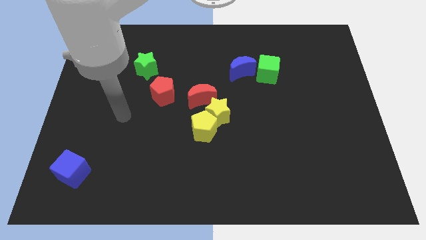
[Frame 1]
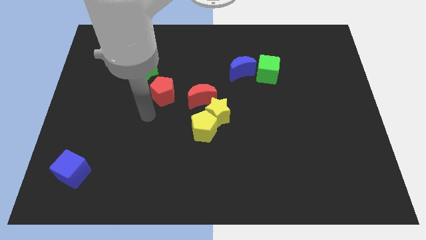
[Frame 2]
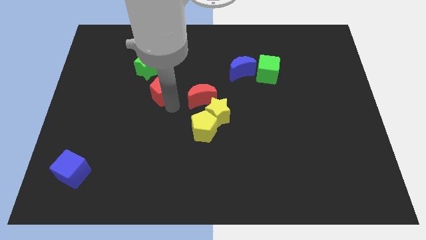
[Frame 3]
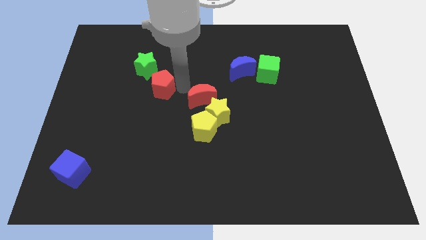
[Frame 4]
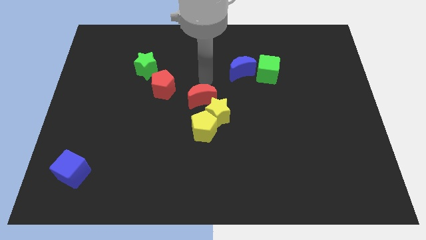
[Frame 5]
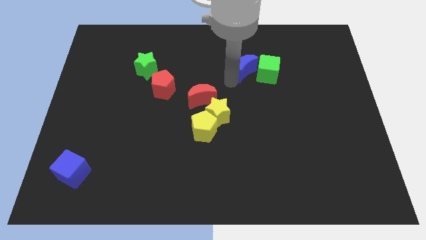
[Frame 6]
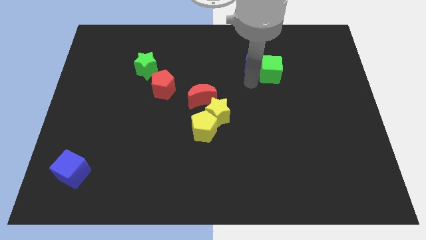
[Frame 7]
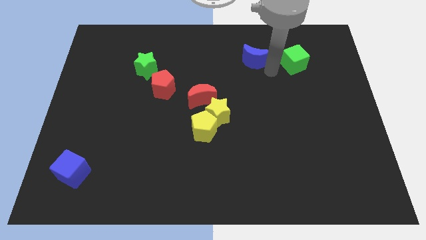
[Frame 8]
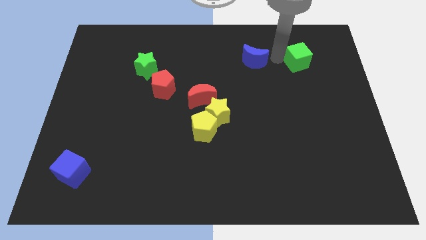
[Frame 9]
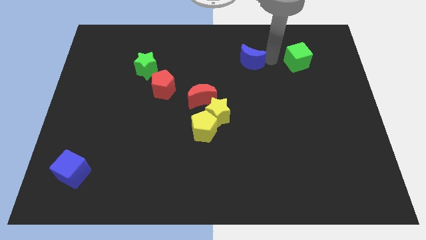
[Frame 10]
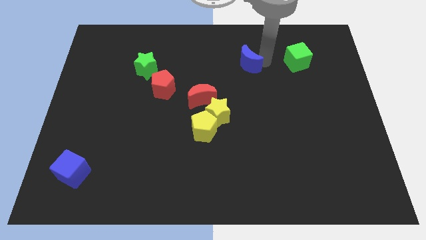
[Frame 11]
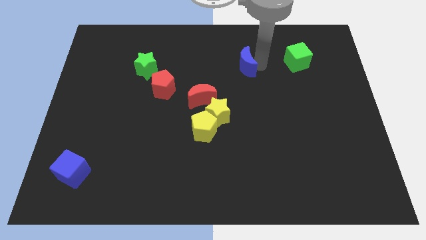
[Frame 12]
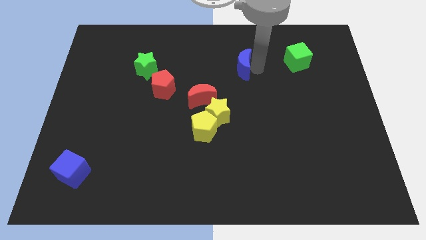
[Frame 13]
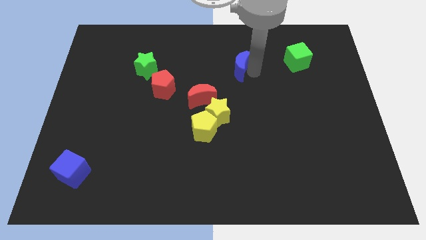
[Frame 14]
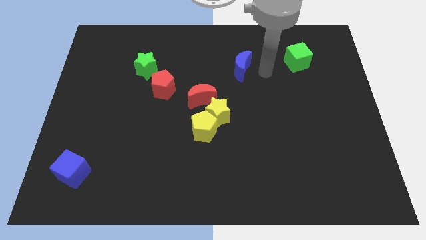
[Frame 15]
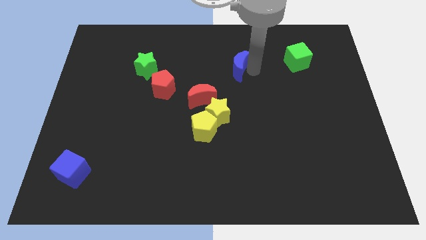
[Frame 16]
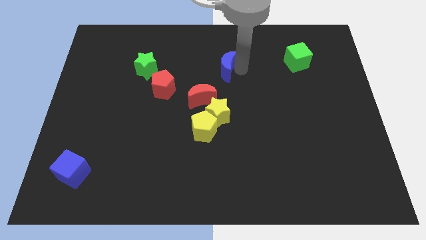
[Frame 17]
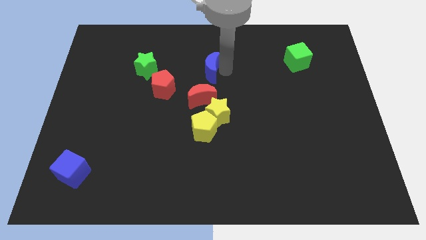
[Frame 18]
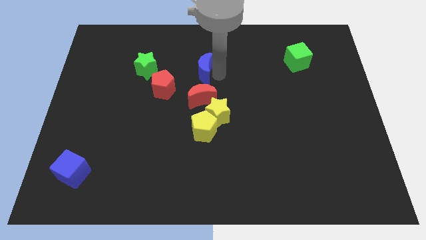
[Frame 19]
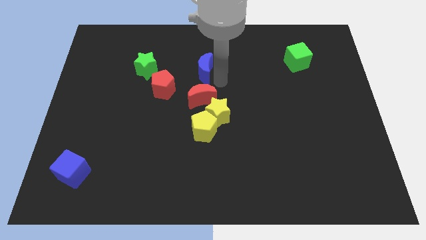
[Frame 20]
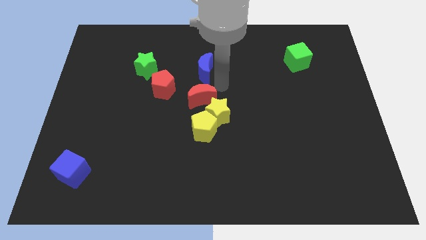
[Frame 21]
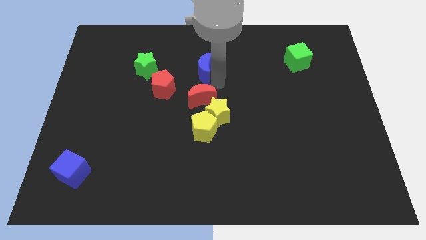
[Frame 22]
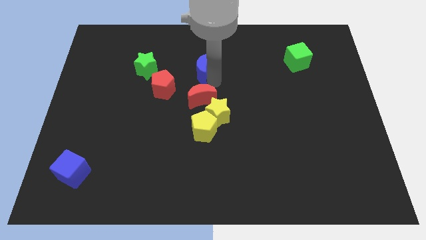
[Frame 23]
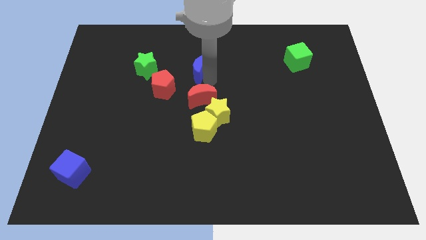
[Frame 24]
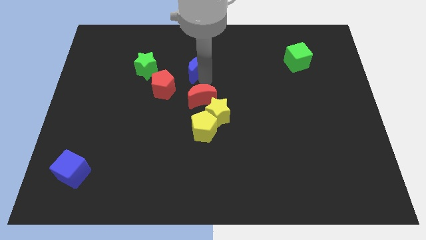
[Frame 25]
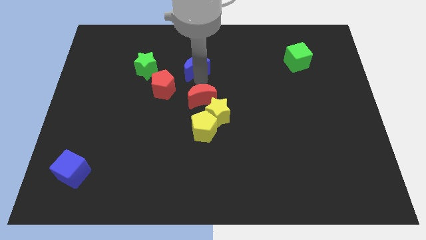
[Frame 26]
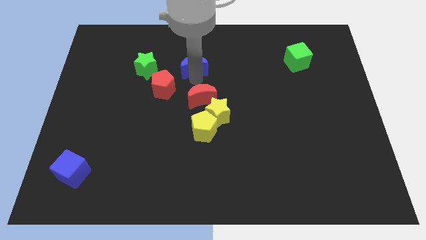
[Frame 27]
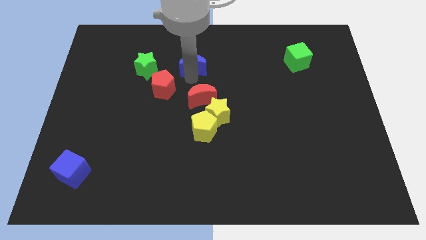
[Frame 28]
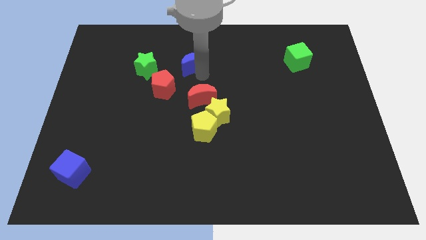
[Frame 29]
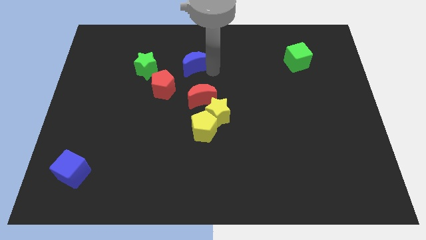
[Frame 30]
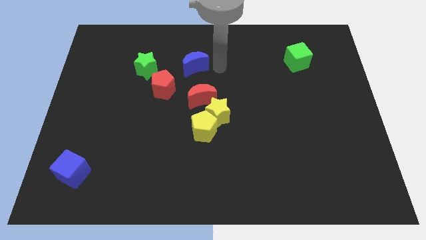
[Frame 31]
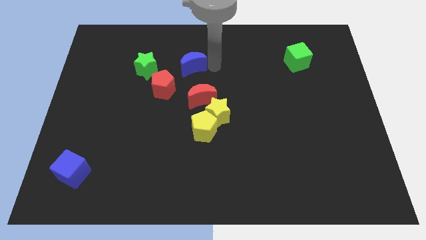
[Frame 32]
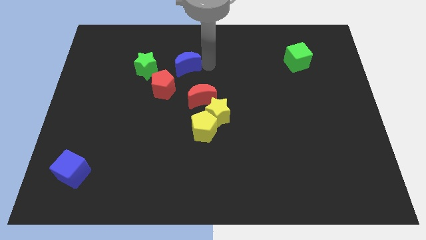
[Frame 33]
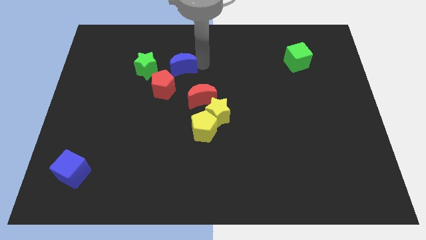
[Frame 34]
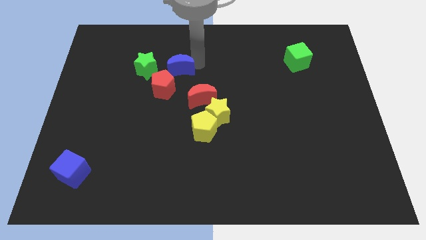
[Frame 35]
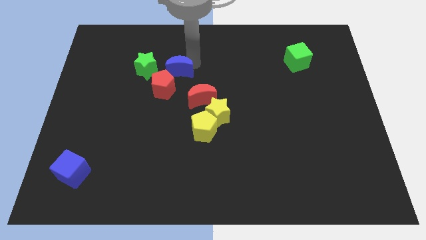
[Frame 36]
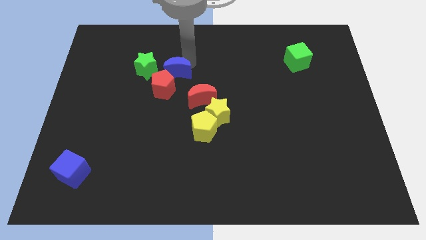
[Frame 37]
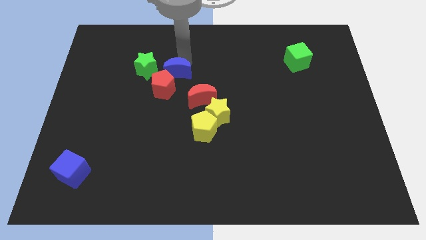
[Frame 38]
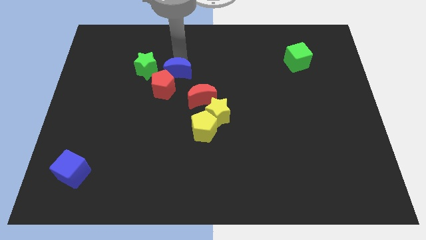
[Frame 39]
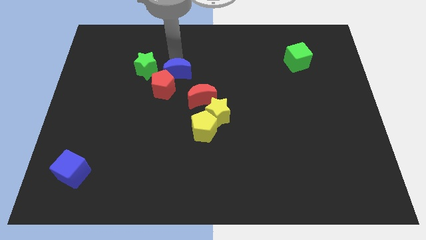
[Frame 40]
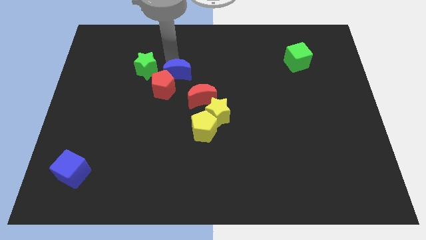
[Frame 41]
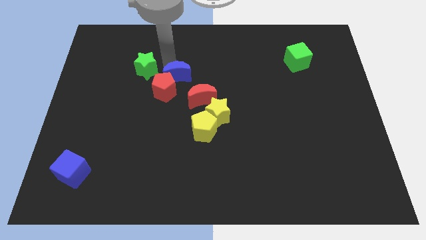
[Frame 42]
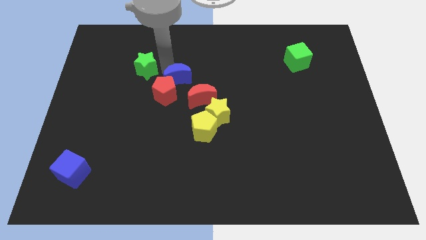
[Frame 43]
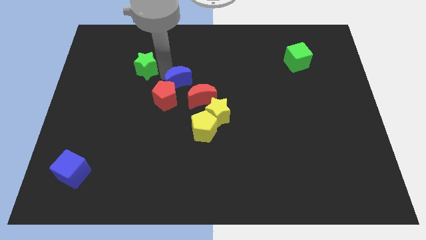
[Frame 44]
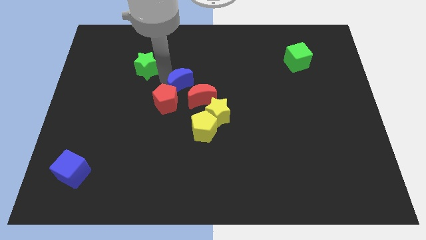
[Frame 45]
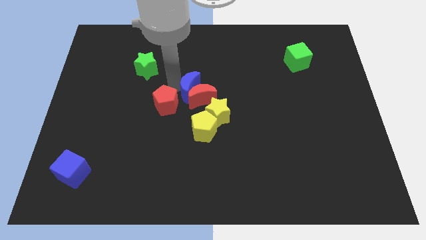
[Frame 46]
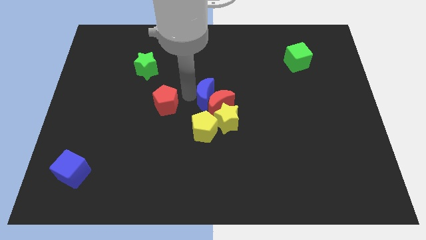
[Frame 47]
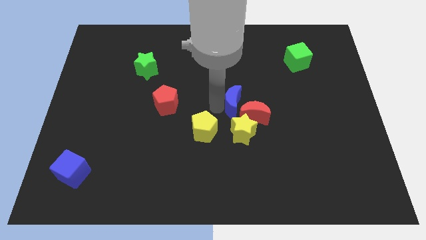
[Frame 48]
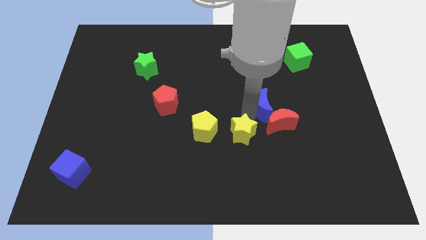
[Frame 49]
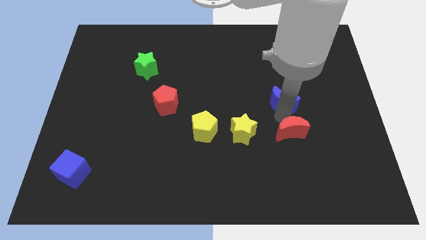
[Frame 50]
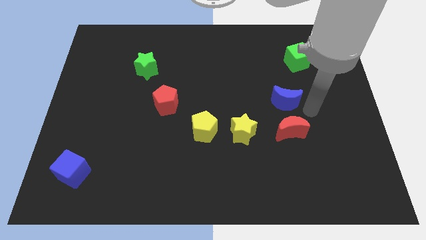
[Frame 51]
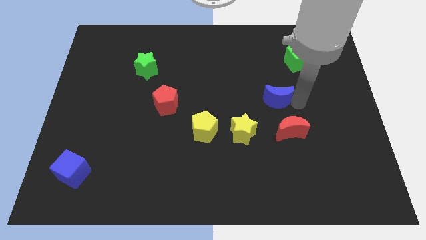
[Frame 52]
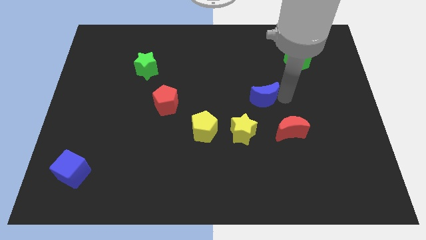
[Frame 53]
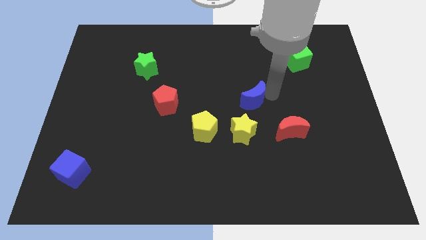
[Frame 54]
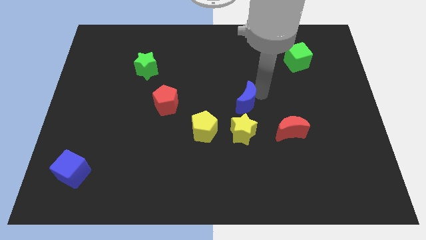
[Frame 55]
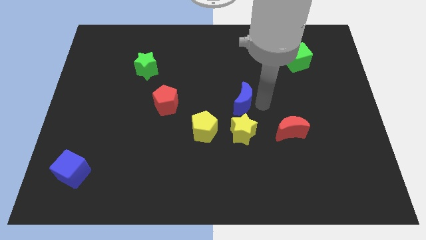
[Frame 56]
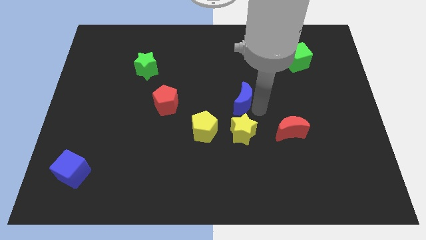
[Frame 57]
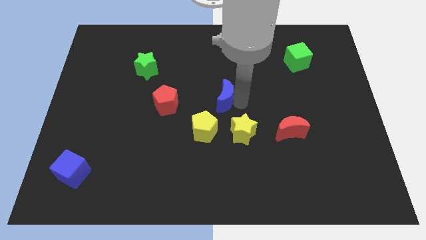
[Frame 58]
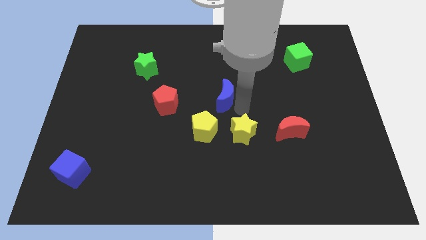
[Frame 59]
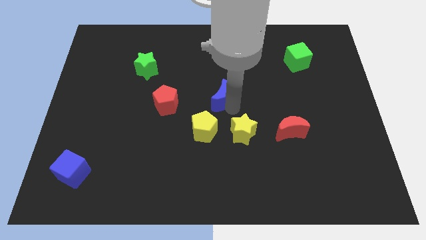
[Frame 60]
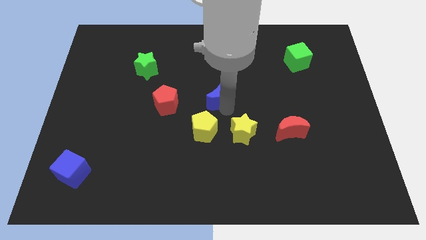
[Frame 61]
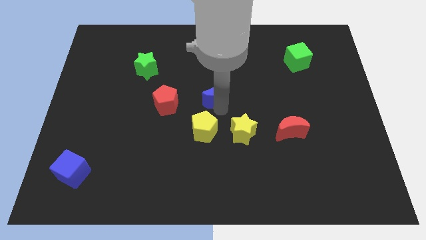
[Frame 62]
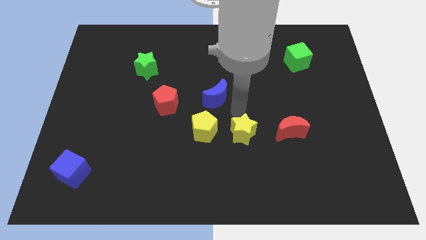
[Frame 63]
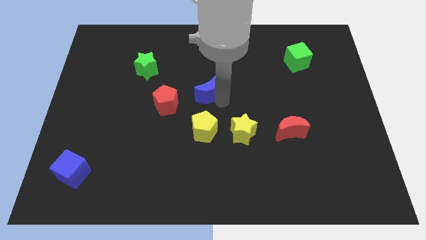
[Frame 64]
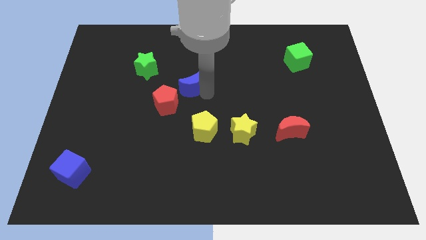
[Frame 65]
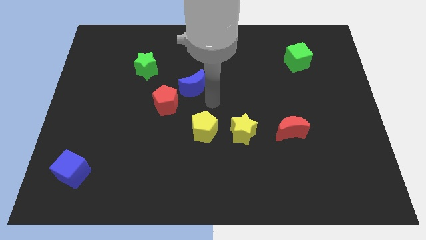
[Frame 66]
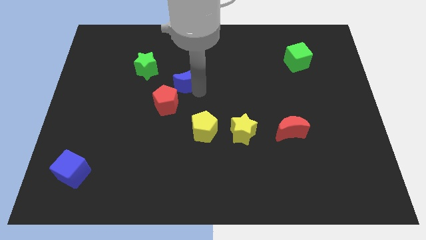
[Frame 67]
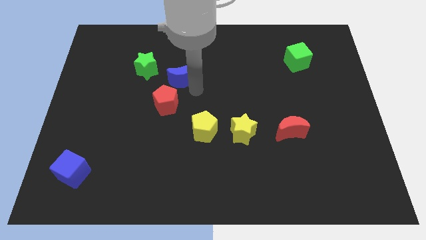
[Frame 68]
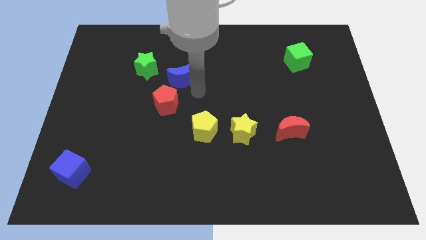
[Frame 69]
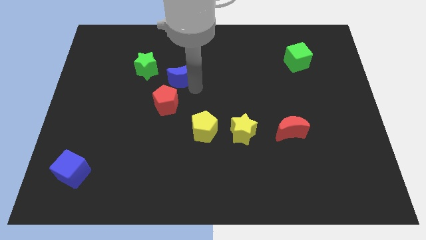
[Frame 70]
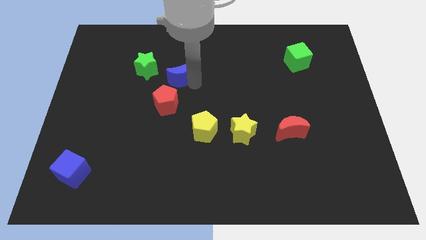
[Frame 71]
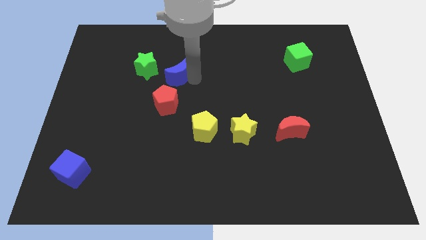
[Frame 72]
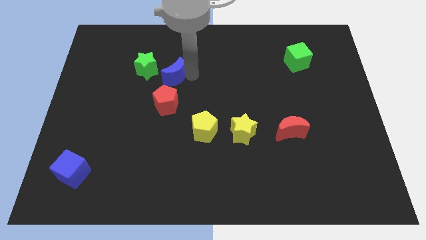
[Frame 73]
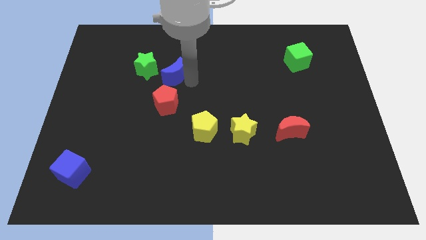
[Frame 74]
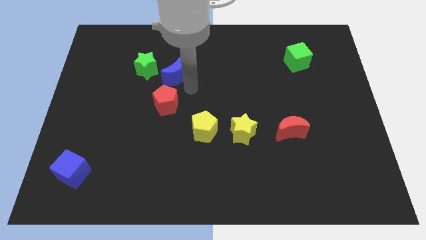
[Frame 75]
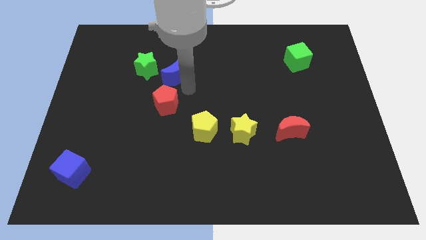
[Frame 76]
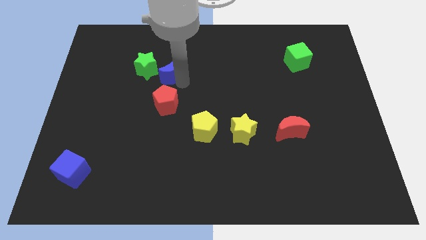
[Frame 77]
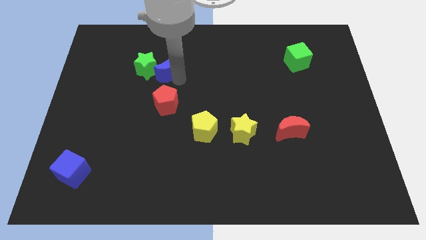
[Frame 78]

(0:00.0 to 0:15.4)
move the blue moon to the green star
